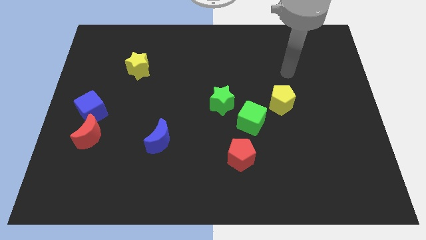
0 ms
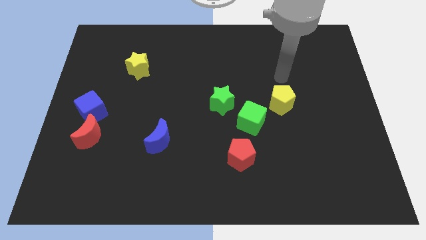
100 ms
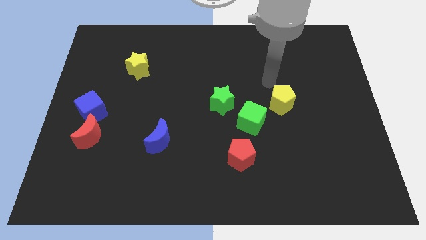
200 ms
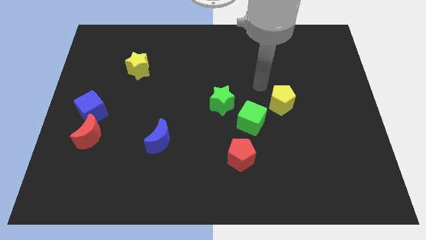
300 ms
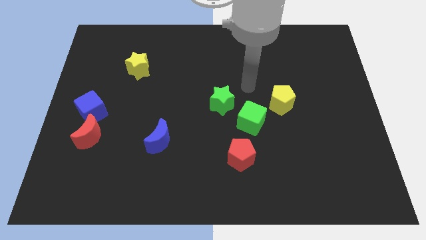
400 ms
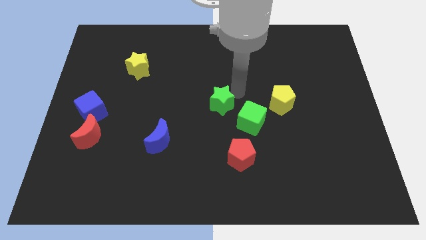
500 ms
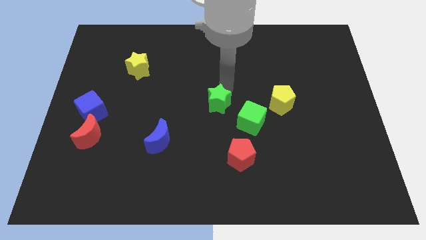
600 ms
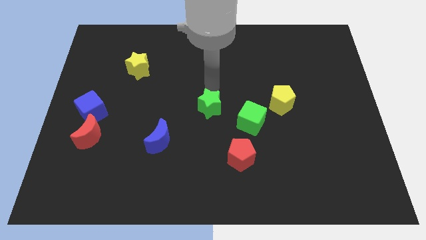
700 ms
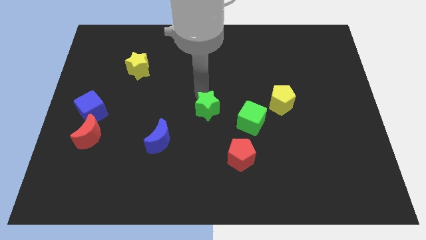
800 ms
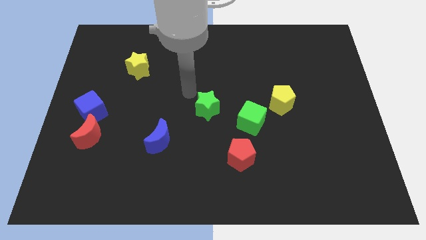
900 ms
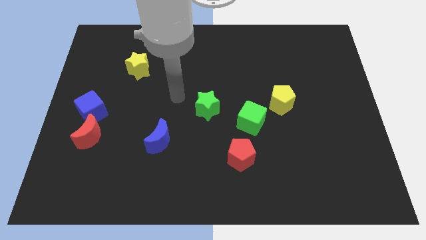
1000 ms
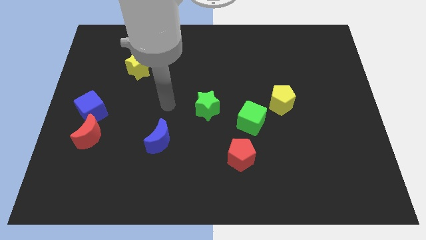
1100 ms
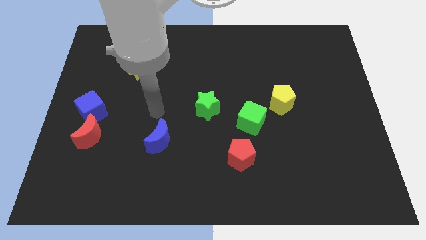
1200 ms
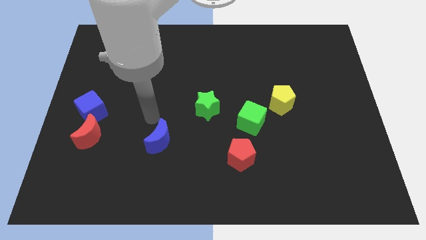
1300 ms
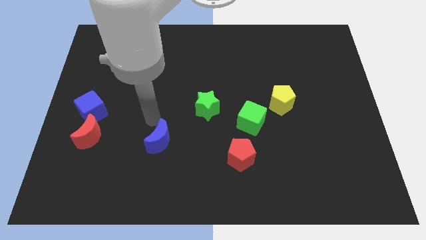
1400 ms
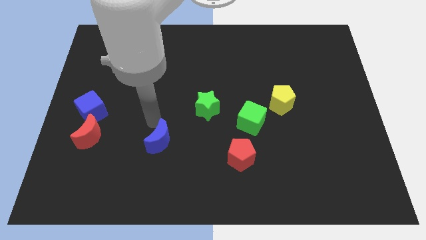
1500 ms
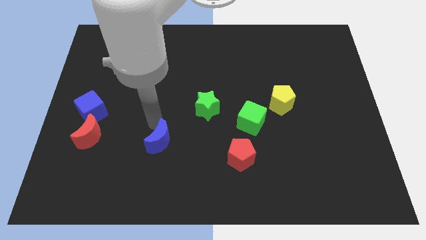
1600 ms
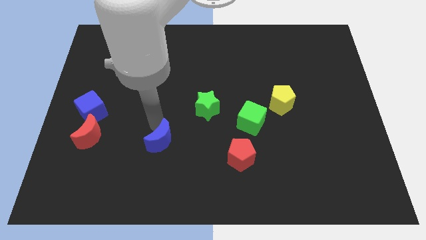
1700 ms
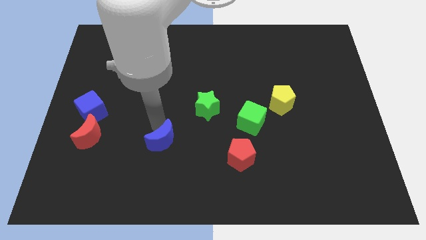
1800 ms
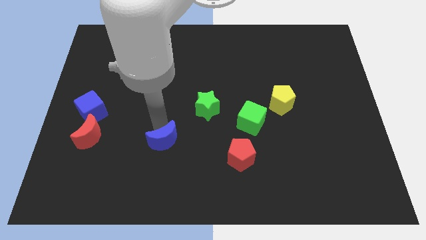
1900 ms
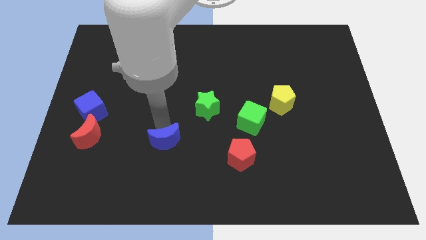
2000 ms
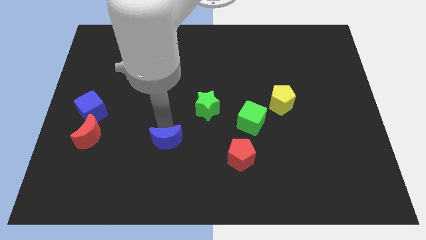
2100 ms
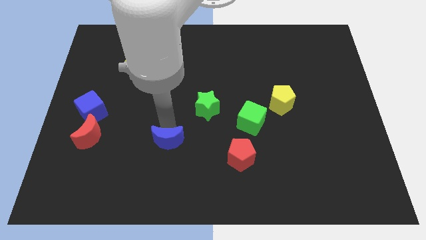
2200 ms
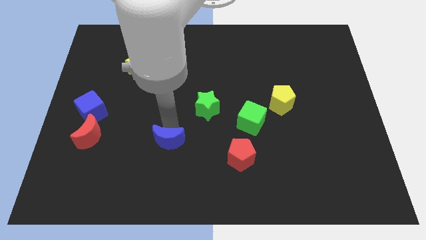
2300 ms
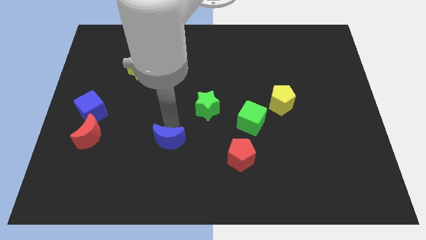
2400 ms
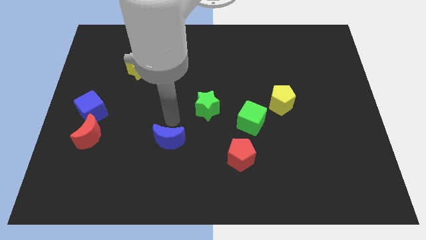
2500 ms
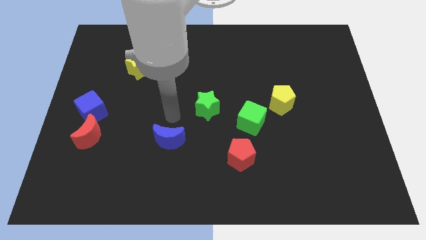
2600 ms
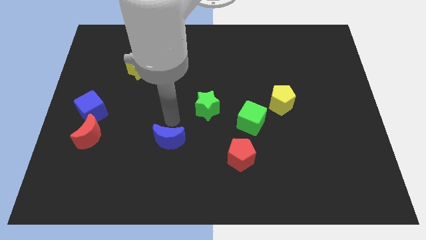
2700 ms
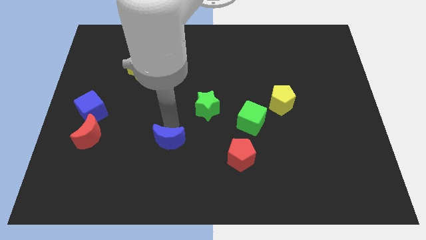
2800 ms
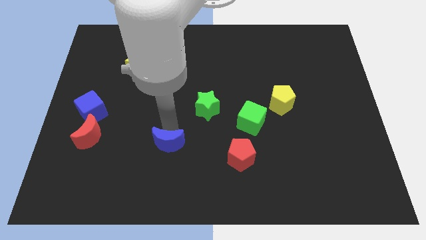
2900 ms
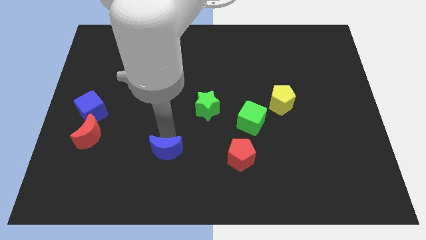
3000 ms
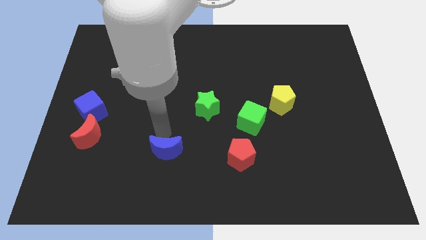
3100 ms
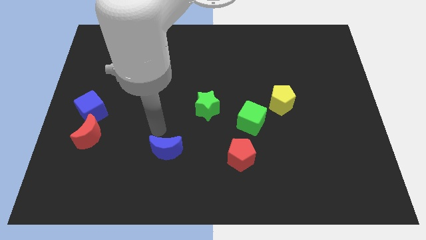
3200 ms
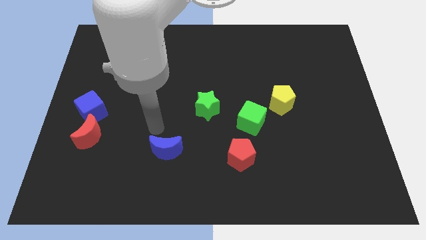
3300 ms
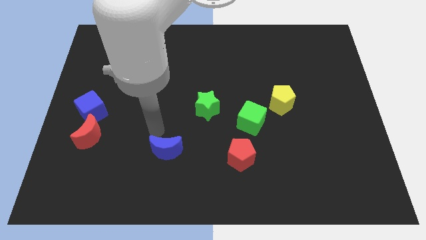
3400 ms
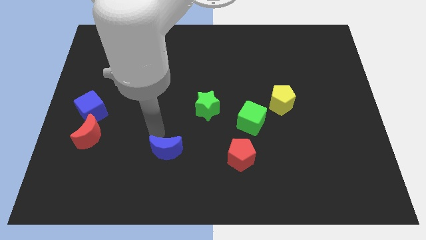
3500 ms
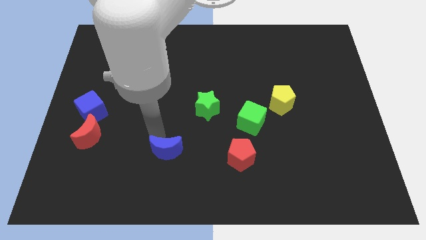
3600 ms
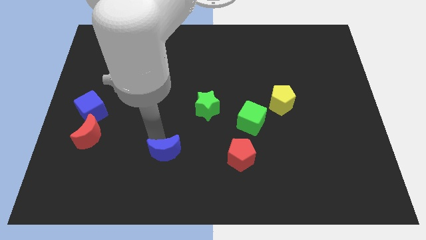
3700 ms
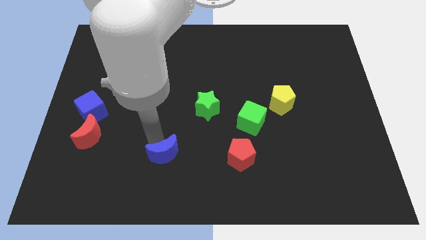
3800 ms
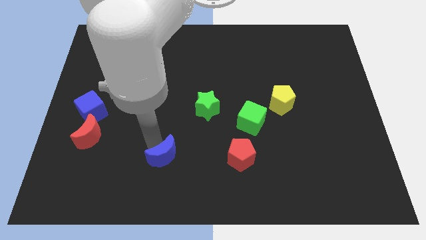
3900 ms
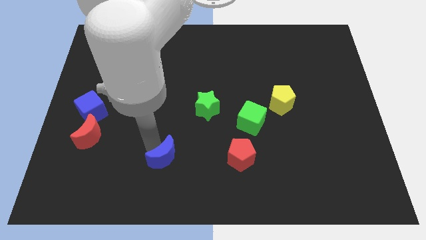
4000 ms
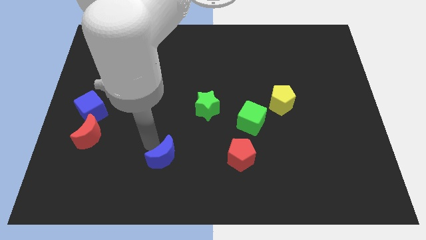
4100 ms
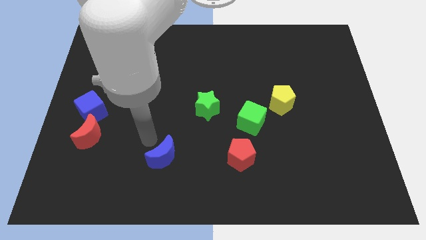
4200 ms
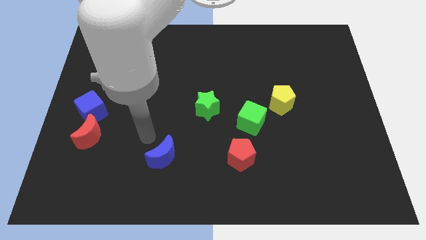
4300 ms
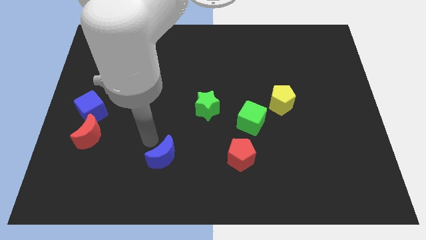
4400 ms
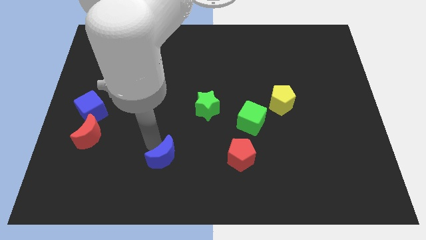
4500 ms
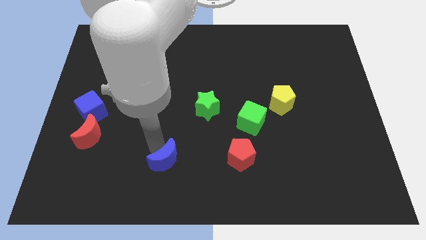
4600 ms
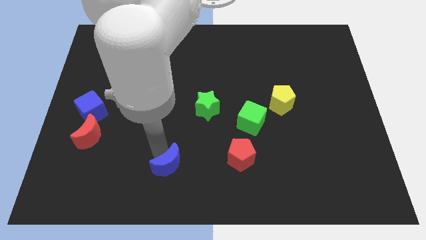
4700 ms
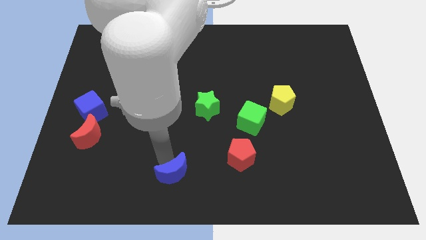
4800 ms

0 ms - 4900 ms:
move the blue moon to the bottom

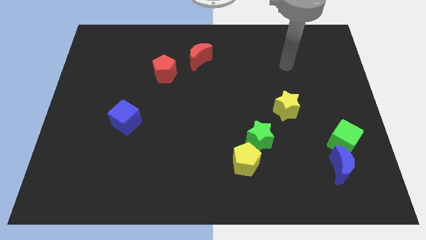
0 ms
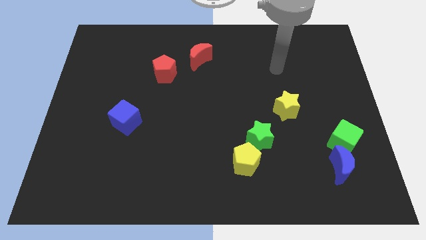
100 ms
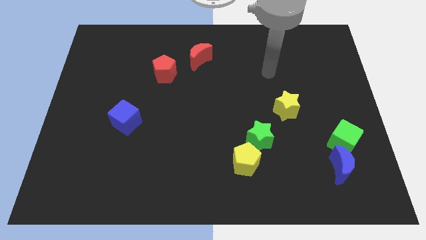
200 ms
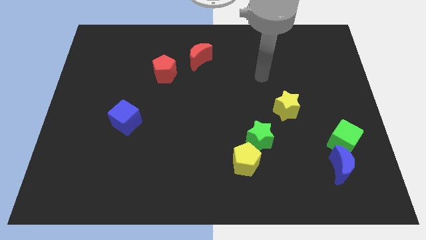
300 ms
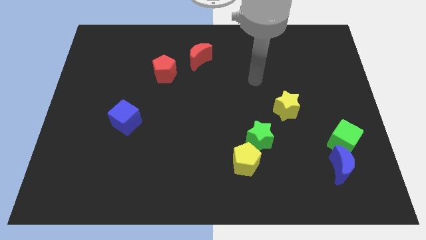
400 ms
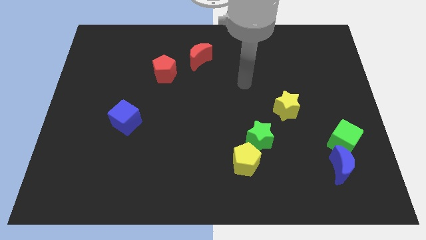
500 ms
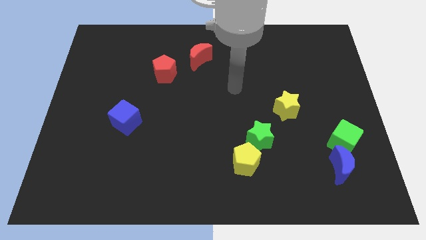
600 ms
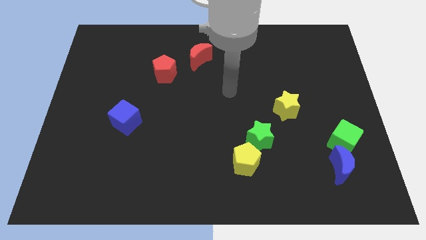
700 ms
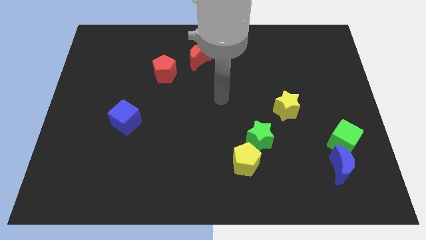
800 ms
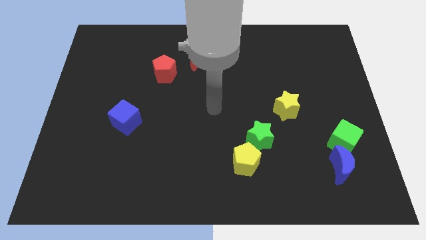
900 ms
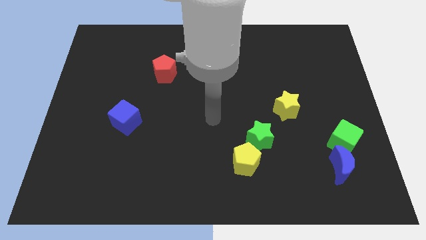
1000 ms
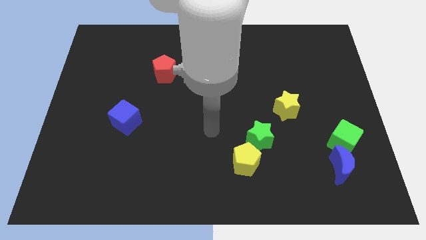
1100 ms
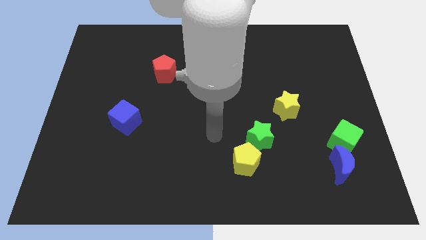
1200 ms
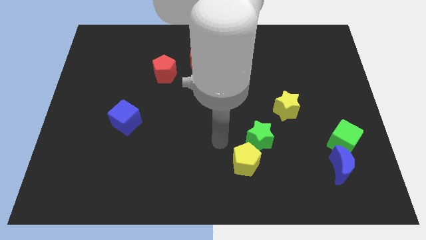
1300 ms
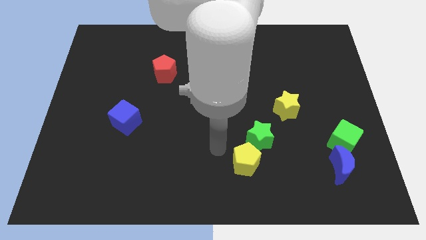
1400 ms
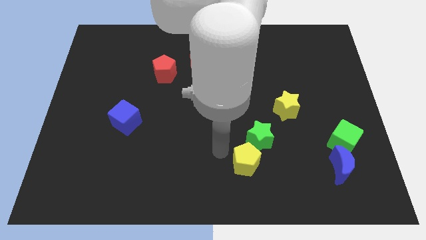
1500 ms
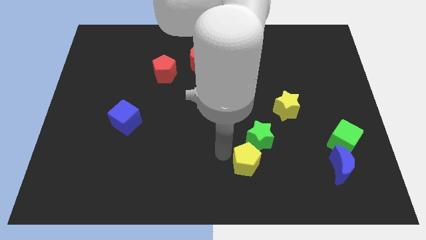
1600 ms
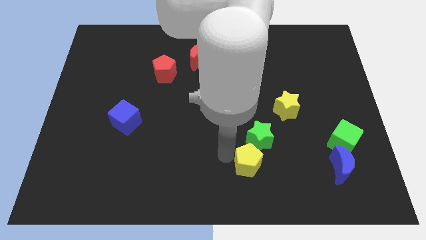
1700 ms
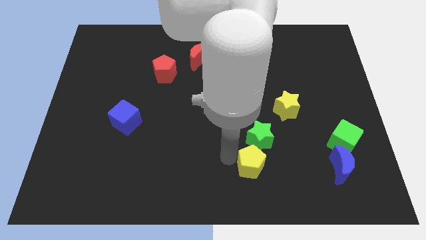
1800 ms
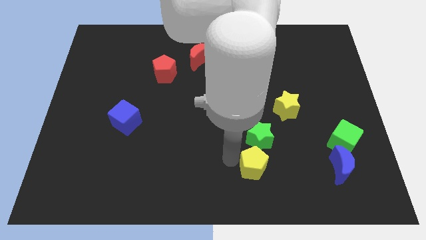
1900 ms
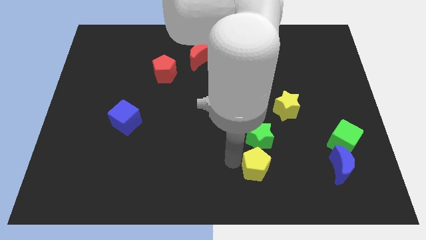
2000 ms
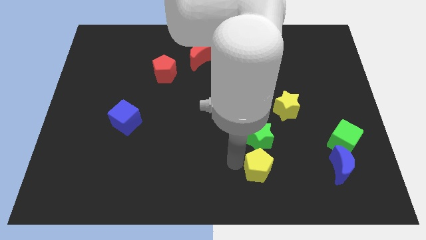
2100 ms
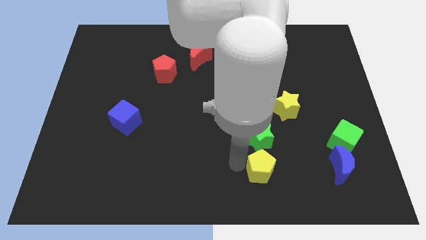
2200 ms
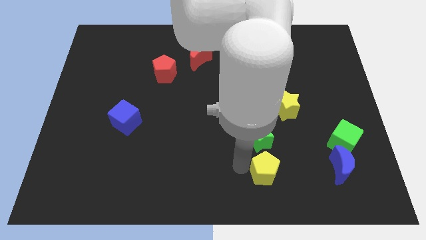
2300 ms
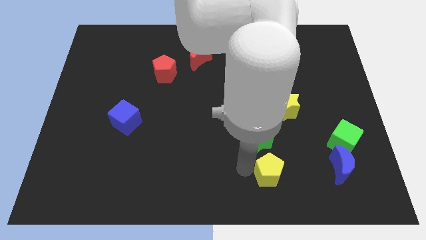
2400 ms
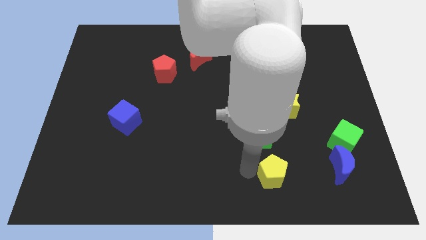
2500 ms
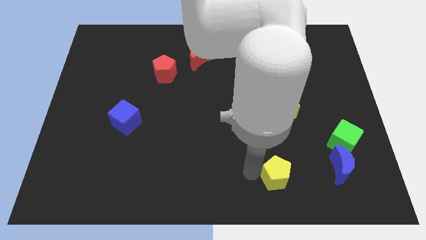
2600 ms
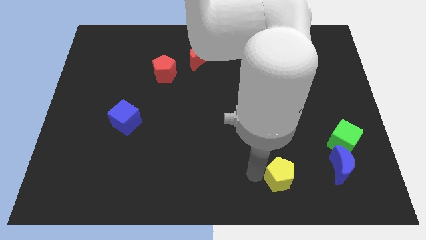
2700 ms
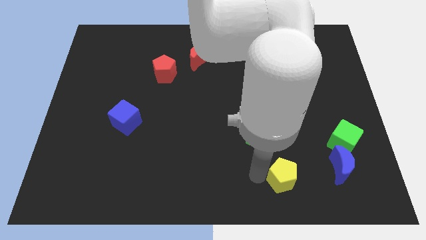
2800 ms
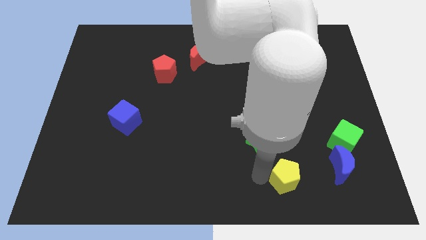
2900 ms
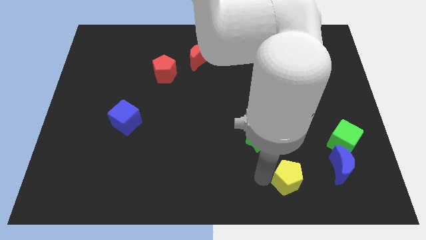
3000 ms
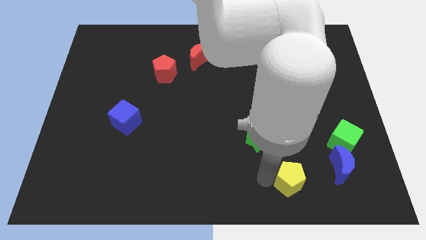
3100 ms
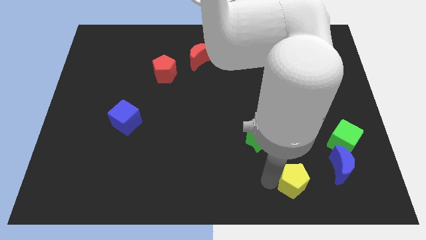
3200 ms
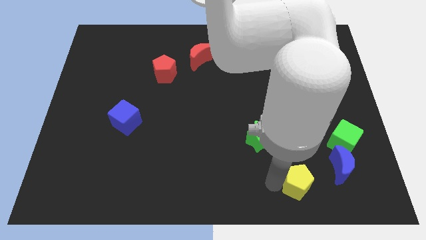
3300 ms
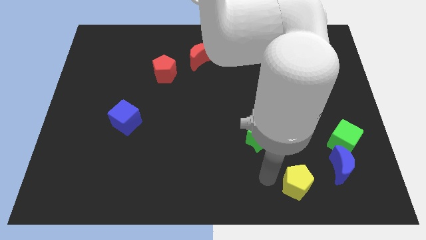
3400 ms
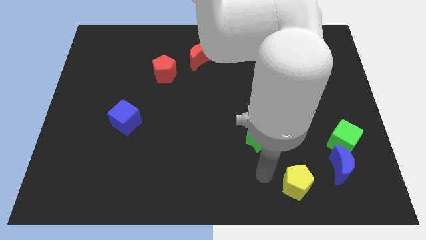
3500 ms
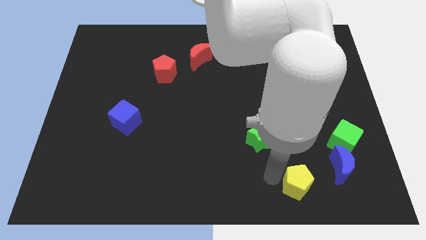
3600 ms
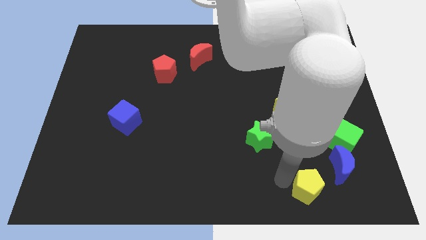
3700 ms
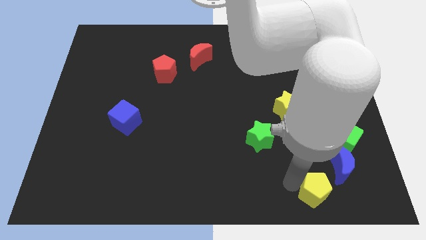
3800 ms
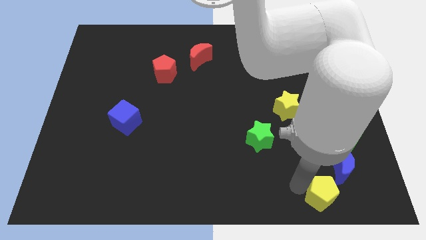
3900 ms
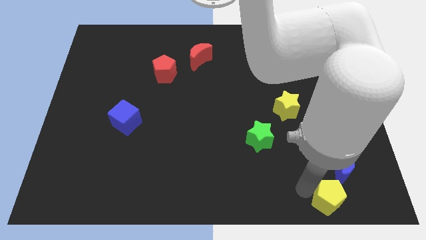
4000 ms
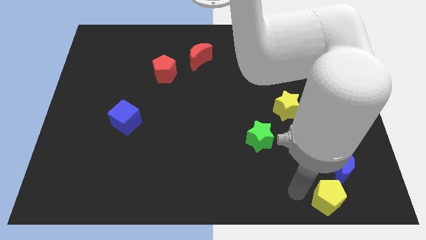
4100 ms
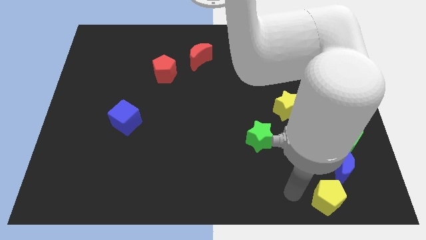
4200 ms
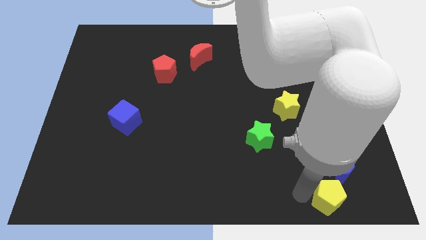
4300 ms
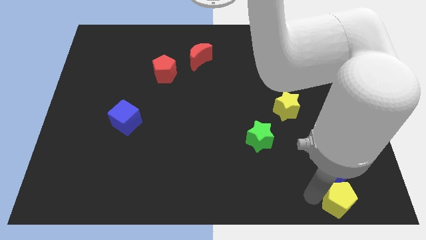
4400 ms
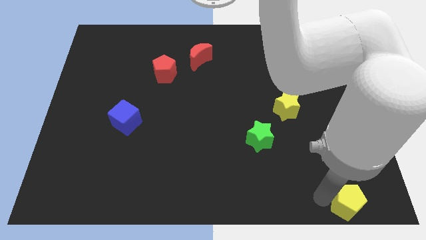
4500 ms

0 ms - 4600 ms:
move the yellow pentagon to the lower right corner
